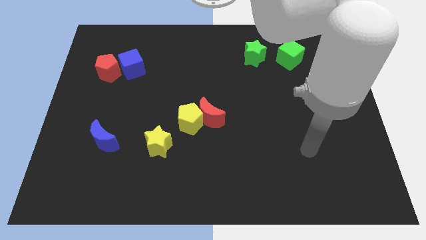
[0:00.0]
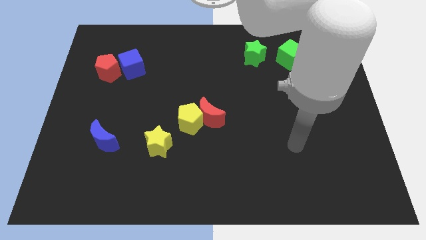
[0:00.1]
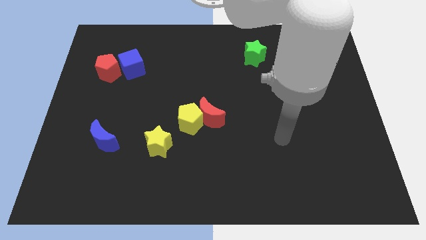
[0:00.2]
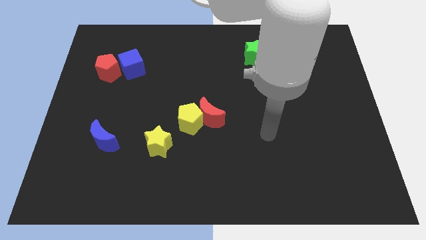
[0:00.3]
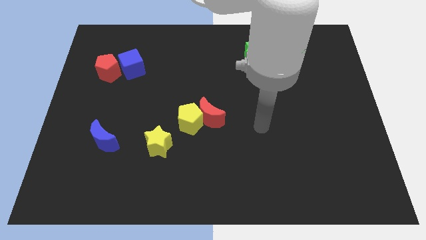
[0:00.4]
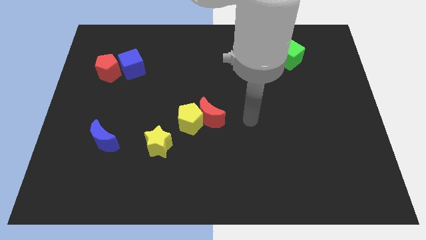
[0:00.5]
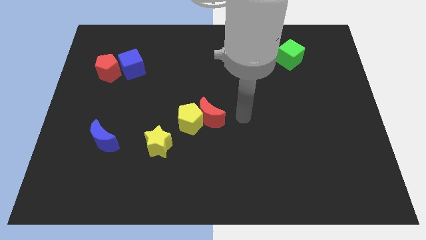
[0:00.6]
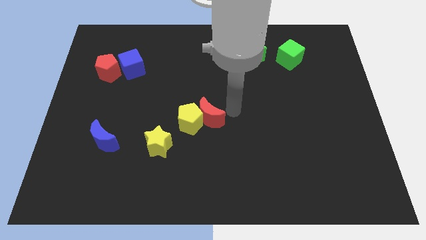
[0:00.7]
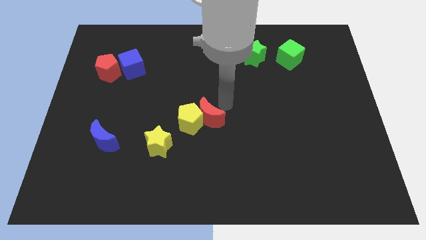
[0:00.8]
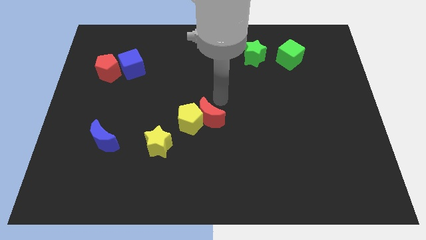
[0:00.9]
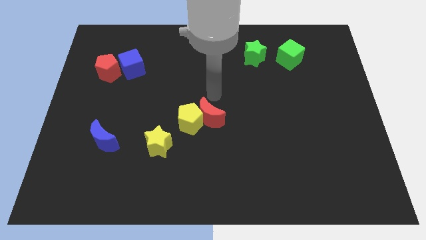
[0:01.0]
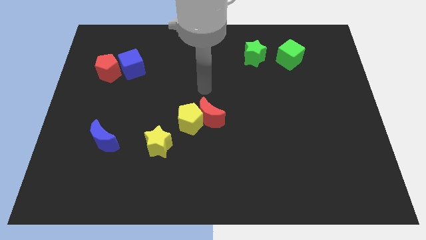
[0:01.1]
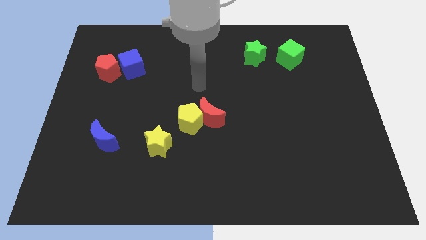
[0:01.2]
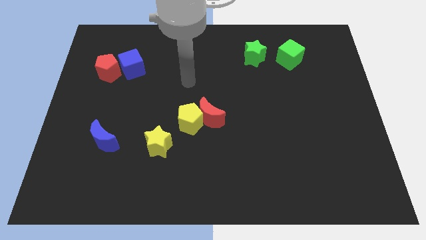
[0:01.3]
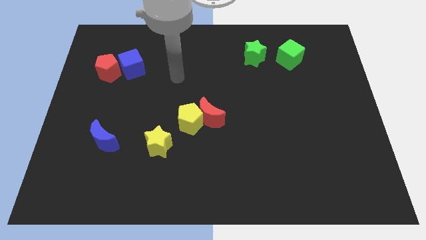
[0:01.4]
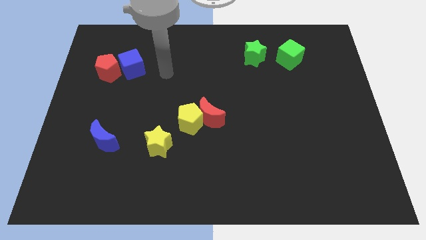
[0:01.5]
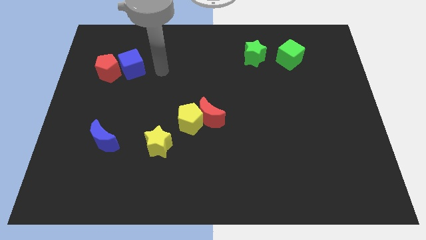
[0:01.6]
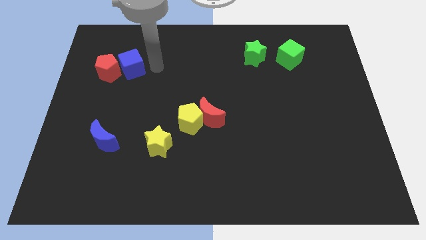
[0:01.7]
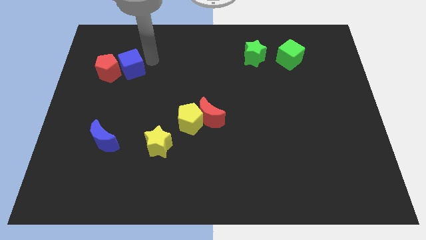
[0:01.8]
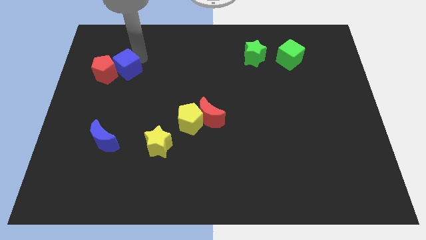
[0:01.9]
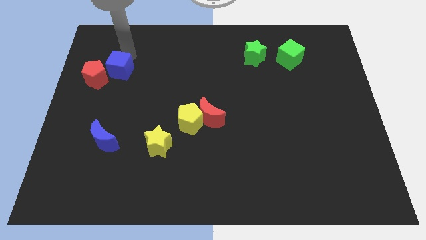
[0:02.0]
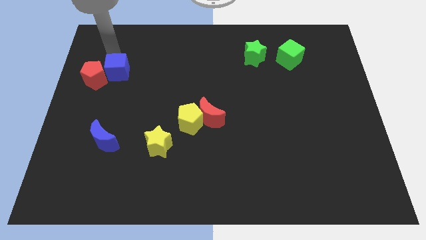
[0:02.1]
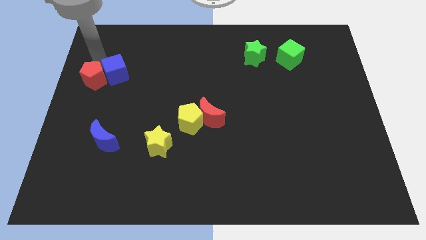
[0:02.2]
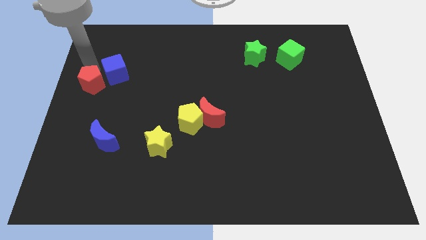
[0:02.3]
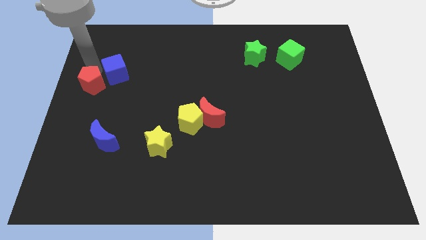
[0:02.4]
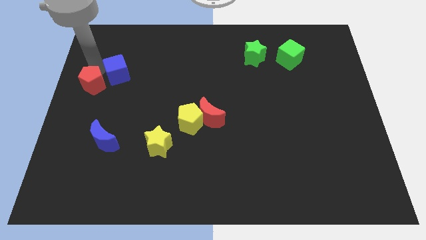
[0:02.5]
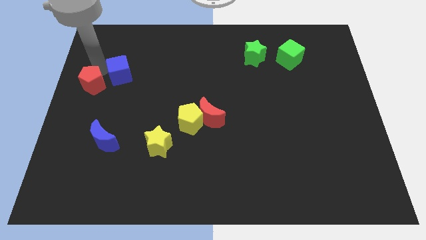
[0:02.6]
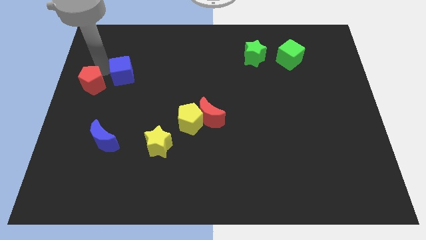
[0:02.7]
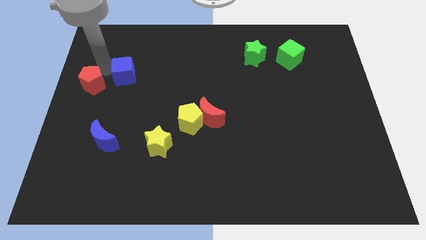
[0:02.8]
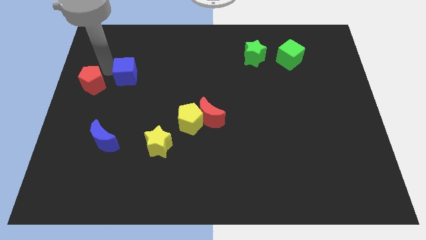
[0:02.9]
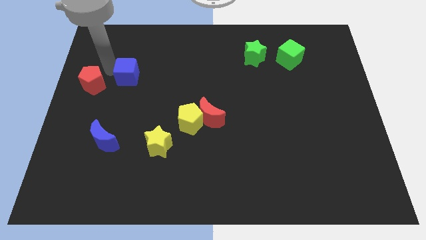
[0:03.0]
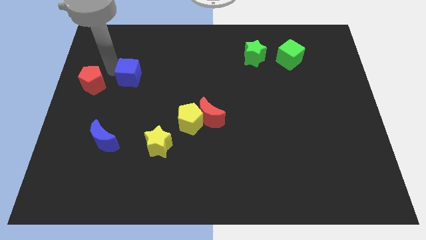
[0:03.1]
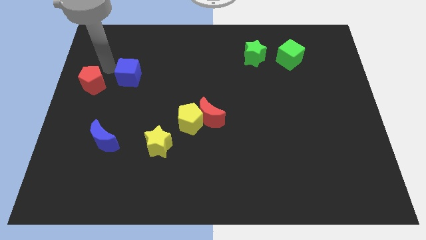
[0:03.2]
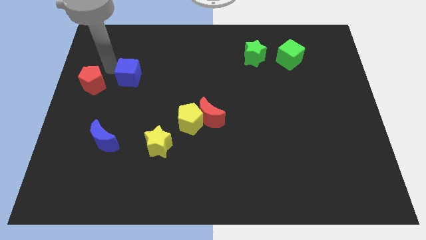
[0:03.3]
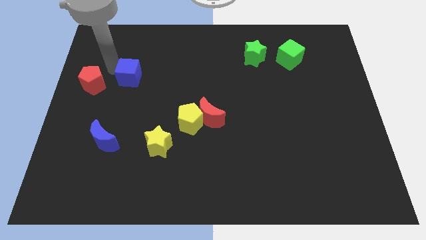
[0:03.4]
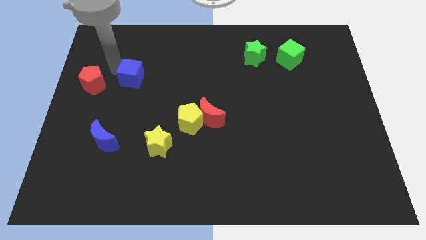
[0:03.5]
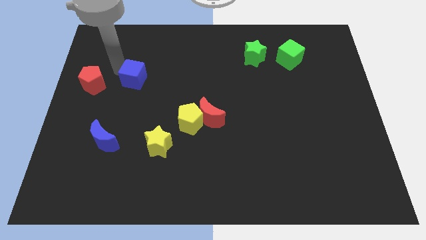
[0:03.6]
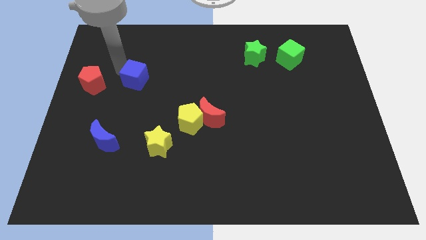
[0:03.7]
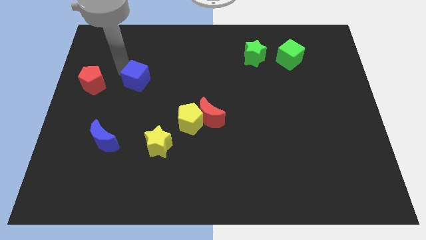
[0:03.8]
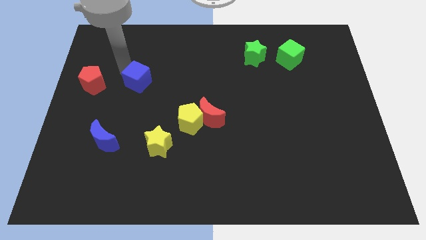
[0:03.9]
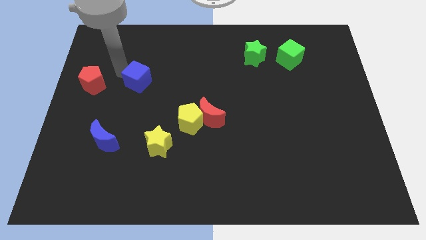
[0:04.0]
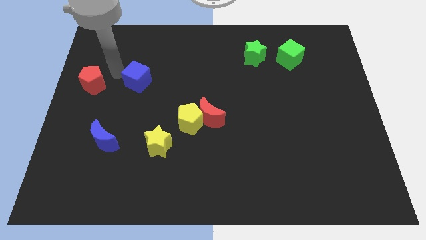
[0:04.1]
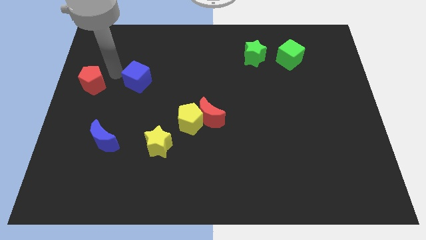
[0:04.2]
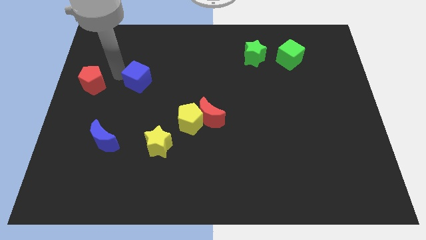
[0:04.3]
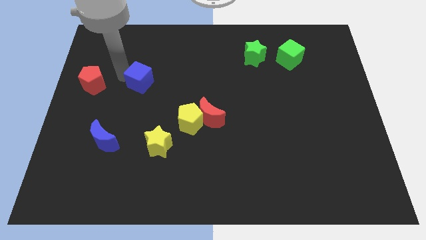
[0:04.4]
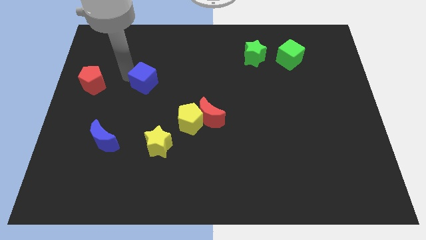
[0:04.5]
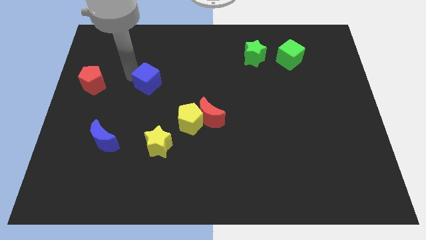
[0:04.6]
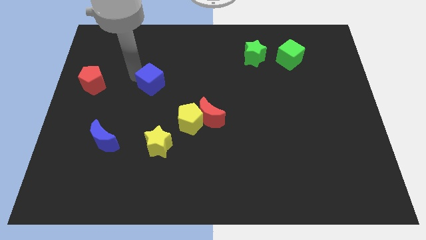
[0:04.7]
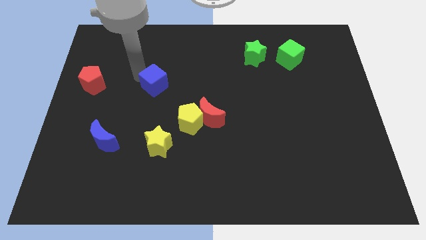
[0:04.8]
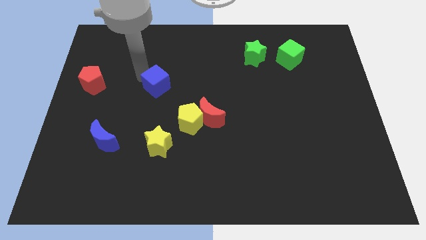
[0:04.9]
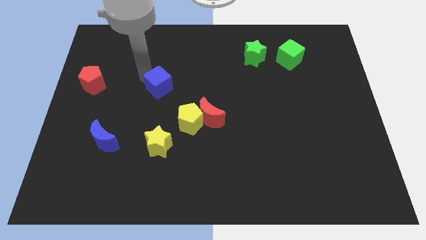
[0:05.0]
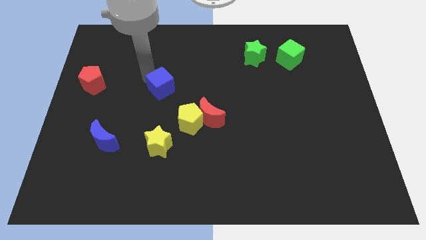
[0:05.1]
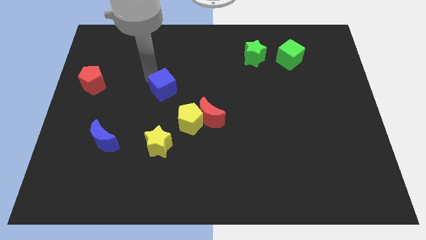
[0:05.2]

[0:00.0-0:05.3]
move the blue cube to the top left of the yellow pentagon

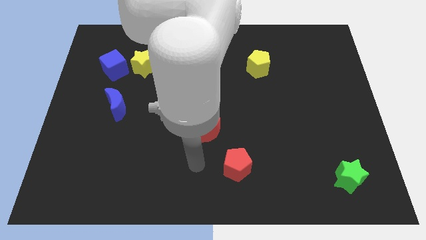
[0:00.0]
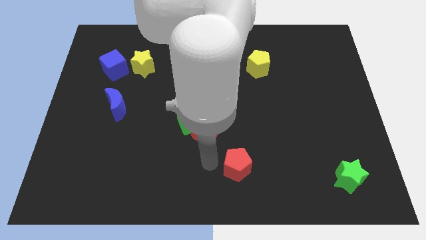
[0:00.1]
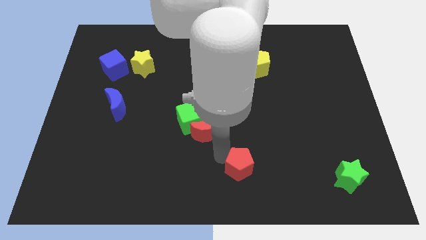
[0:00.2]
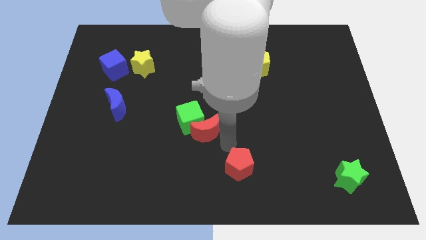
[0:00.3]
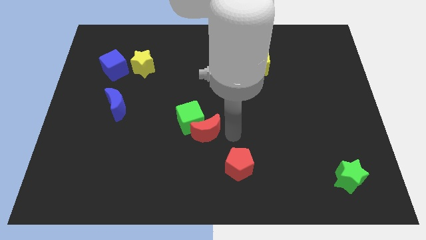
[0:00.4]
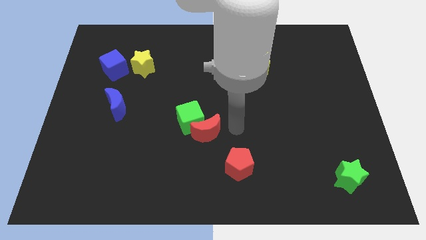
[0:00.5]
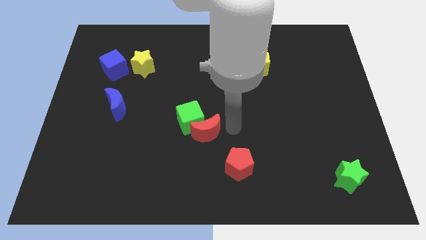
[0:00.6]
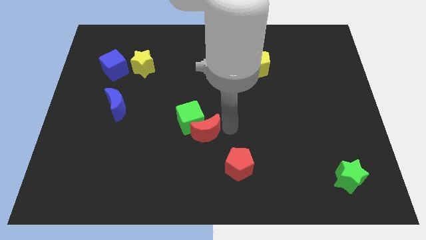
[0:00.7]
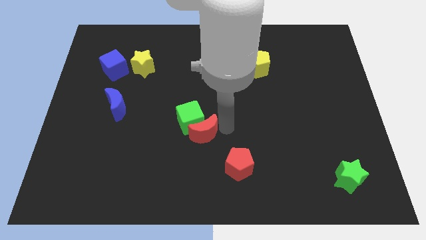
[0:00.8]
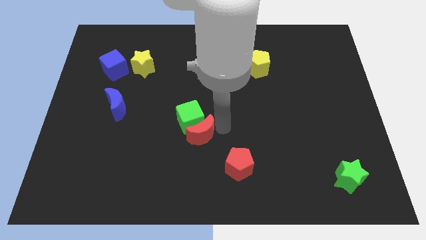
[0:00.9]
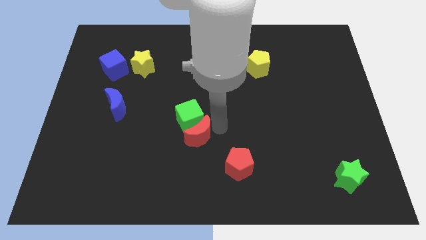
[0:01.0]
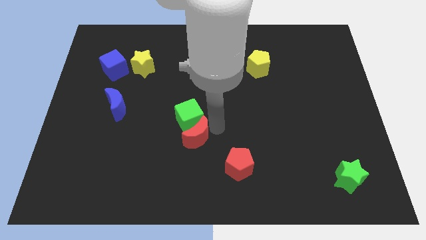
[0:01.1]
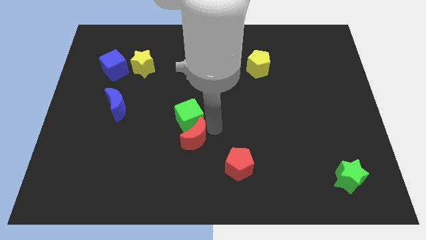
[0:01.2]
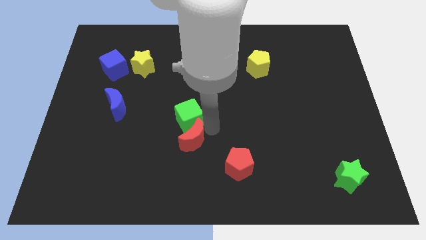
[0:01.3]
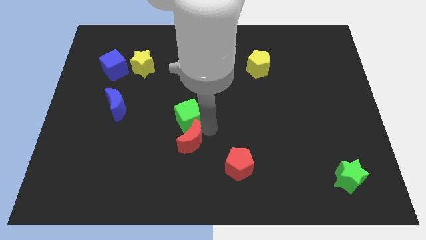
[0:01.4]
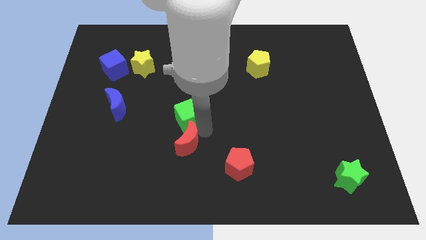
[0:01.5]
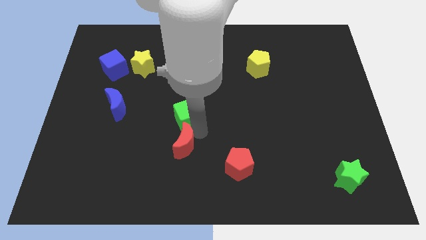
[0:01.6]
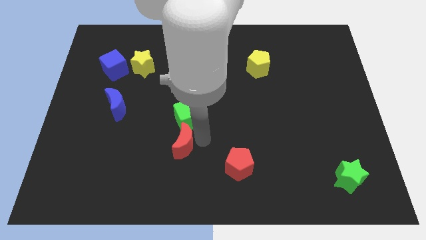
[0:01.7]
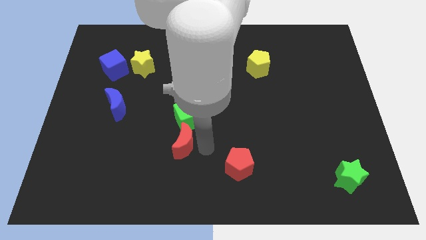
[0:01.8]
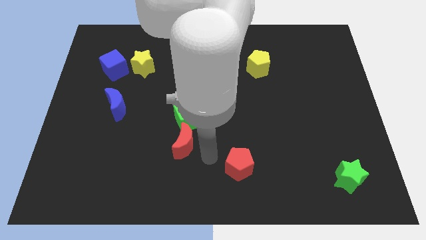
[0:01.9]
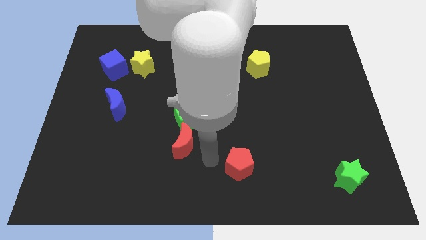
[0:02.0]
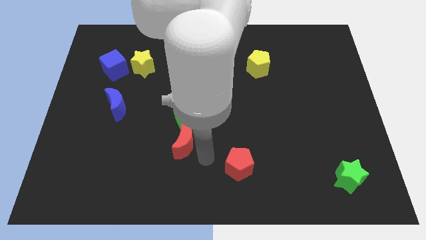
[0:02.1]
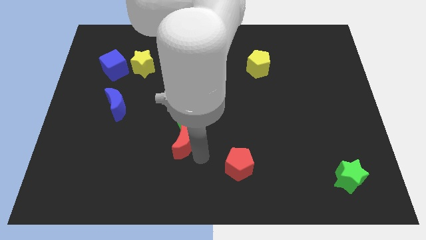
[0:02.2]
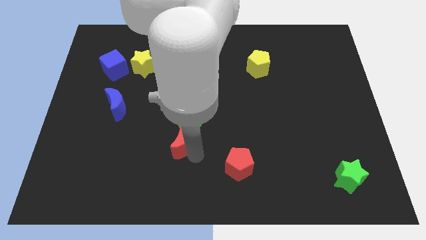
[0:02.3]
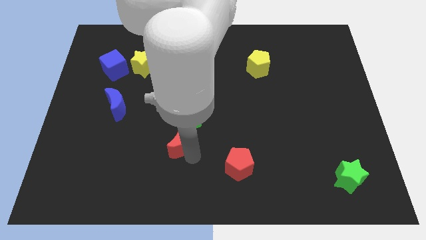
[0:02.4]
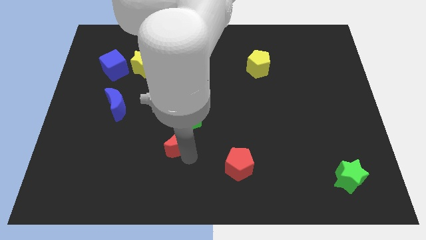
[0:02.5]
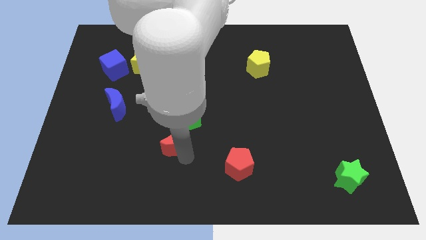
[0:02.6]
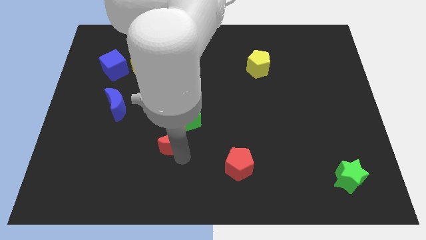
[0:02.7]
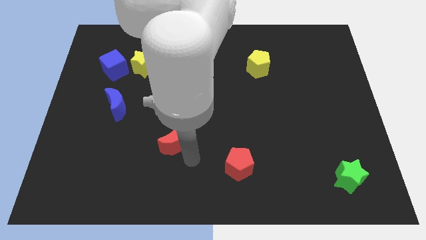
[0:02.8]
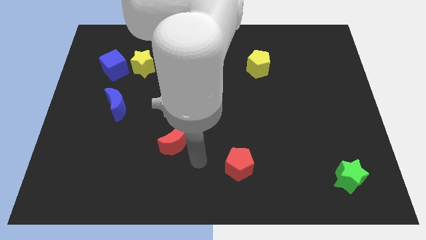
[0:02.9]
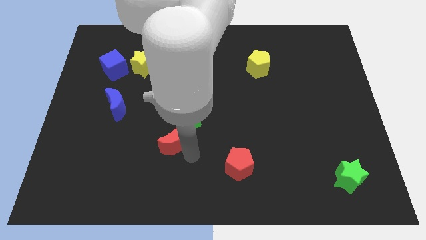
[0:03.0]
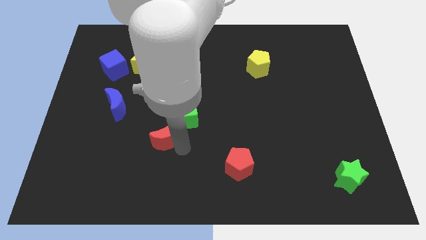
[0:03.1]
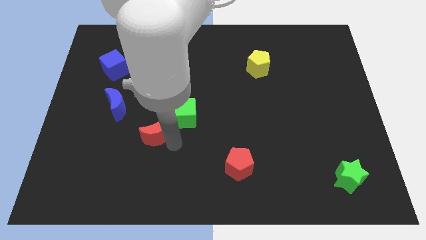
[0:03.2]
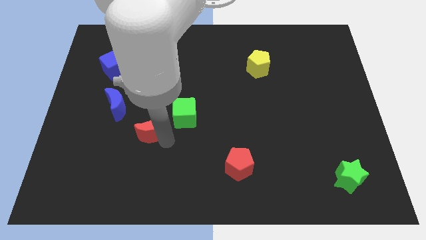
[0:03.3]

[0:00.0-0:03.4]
slide the red moon left of the green cube
